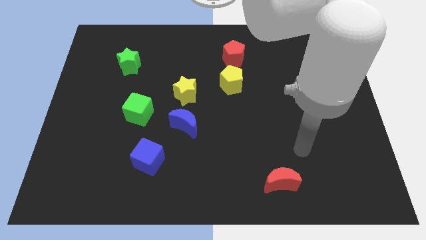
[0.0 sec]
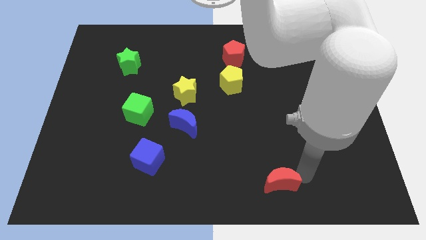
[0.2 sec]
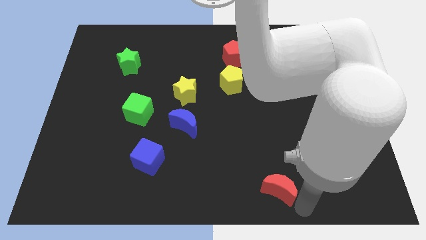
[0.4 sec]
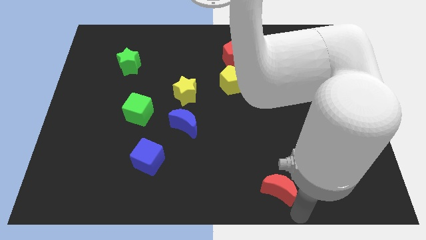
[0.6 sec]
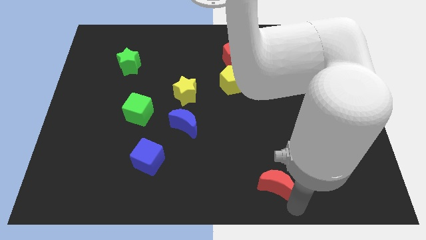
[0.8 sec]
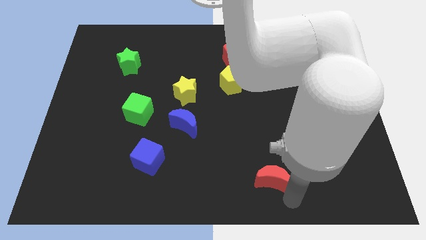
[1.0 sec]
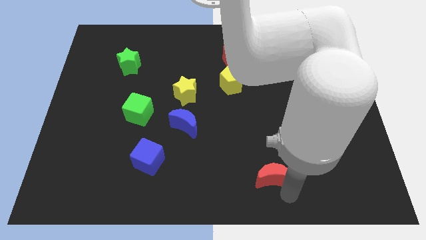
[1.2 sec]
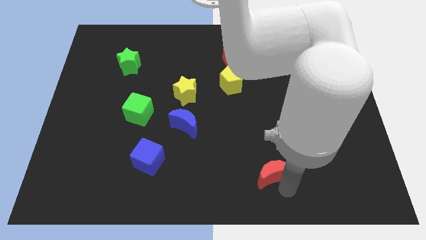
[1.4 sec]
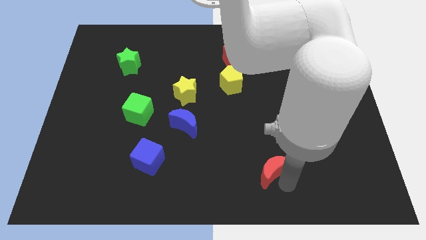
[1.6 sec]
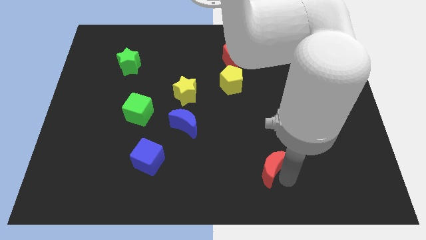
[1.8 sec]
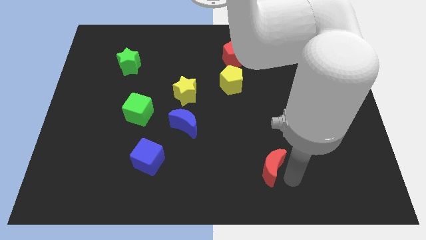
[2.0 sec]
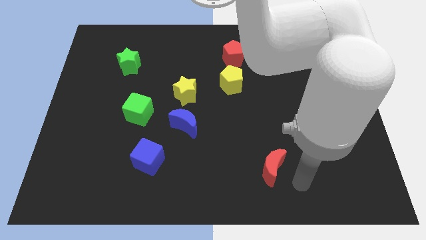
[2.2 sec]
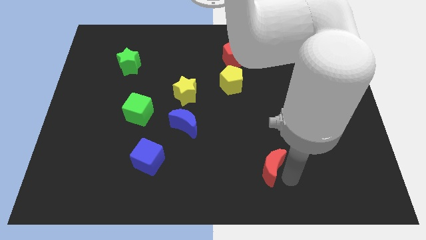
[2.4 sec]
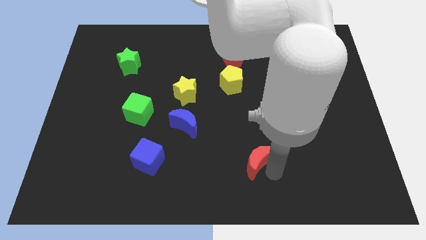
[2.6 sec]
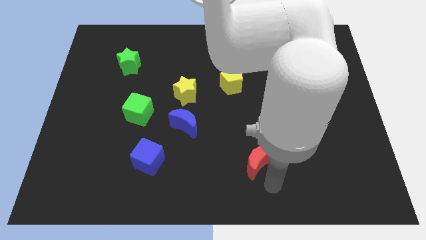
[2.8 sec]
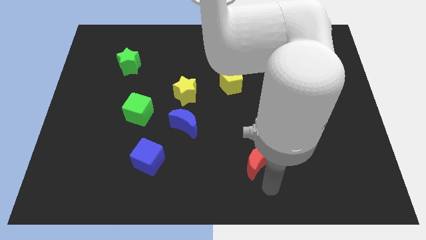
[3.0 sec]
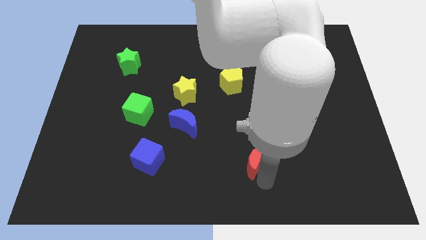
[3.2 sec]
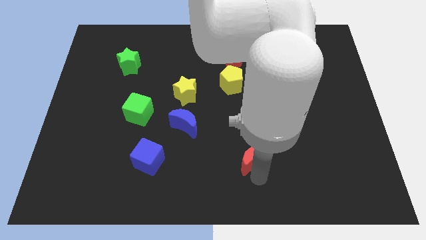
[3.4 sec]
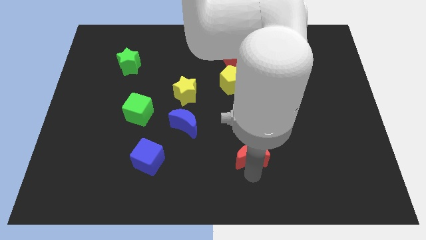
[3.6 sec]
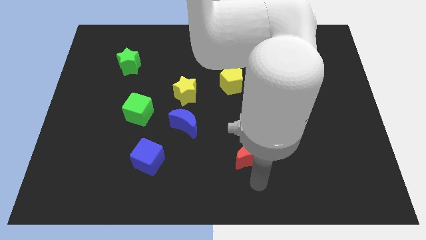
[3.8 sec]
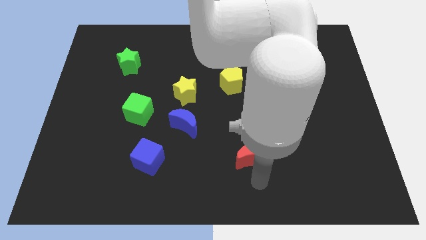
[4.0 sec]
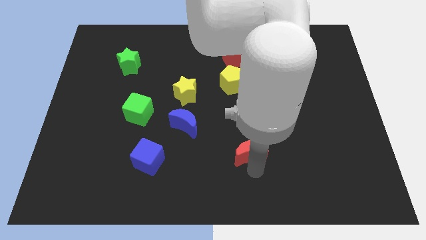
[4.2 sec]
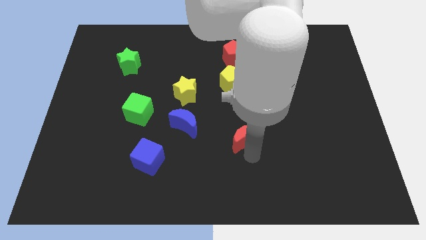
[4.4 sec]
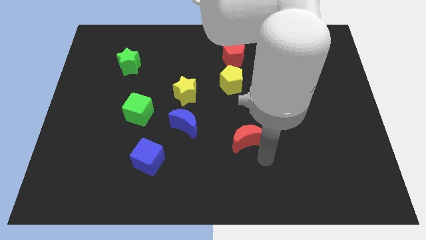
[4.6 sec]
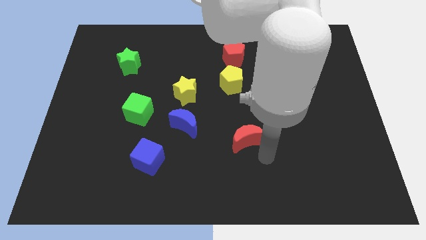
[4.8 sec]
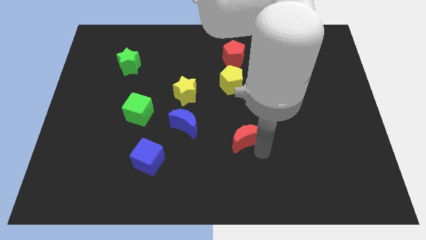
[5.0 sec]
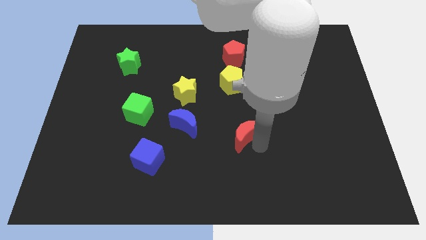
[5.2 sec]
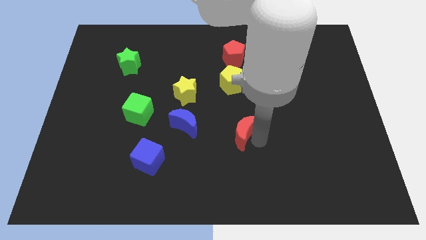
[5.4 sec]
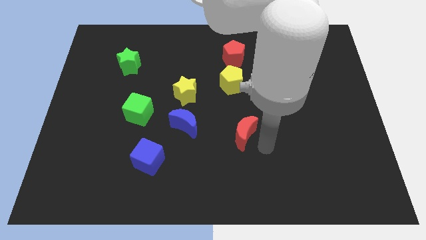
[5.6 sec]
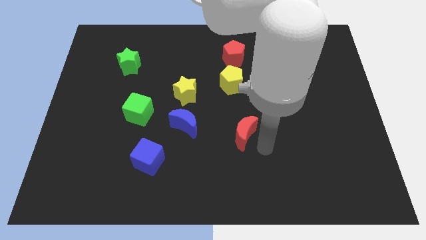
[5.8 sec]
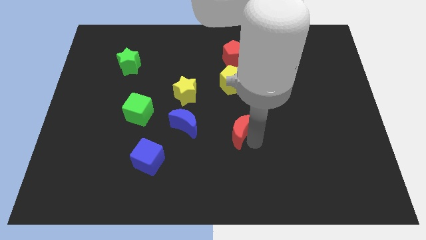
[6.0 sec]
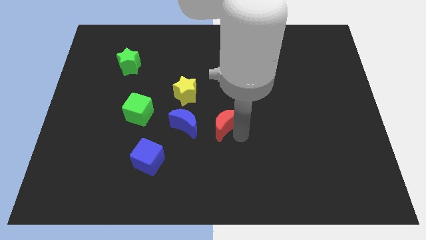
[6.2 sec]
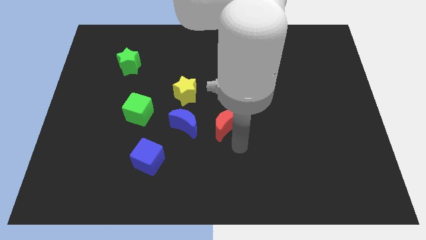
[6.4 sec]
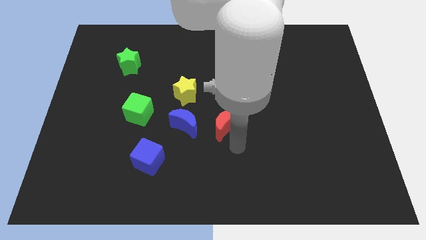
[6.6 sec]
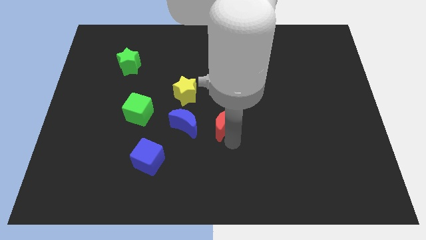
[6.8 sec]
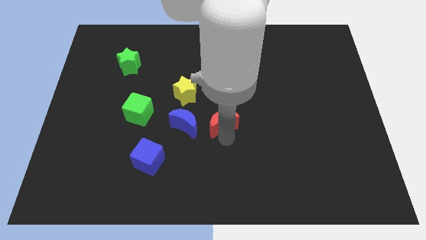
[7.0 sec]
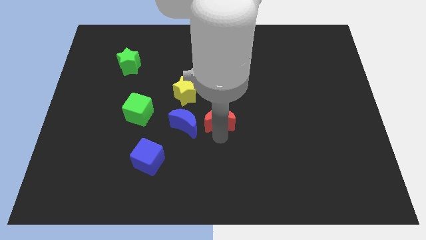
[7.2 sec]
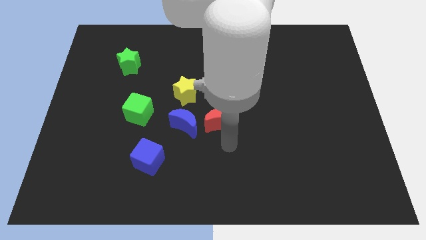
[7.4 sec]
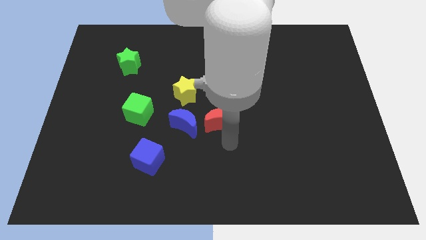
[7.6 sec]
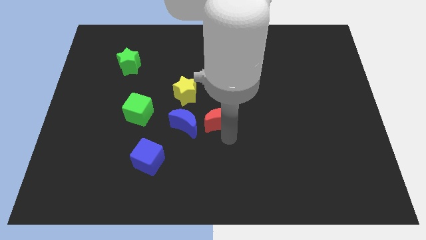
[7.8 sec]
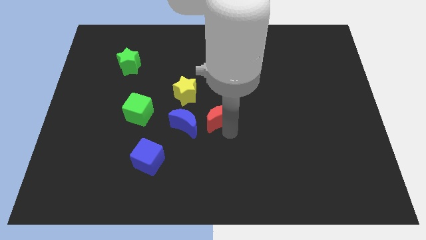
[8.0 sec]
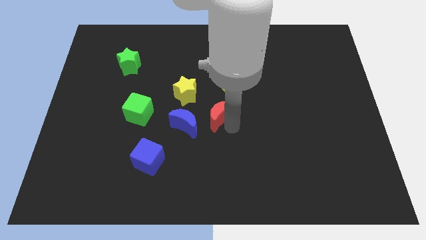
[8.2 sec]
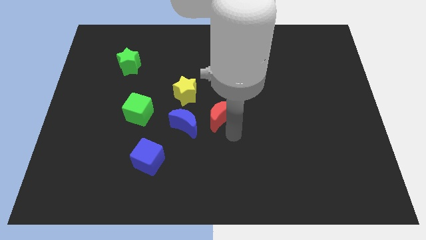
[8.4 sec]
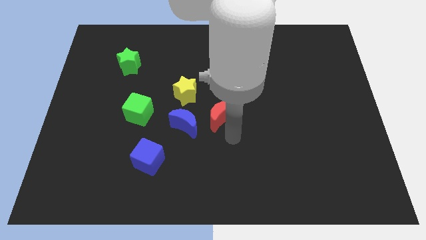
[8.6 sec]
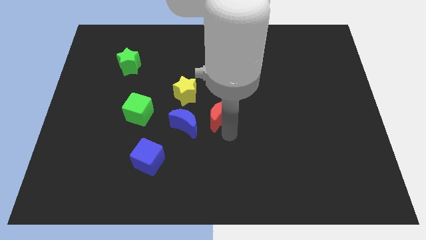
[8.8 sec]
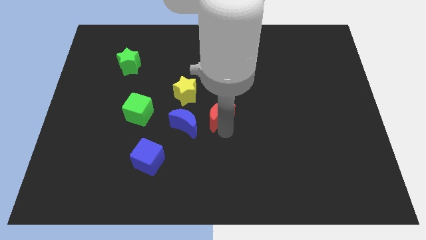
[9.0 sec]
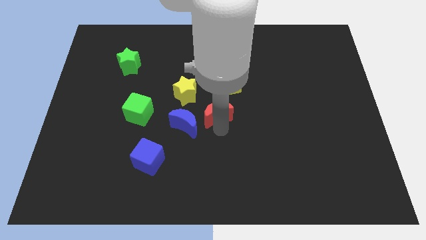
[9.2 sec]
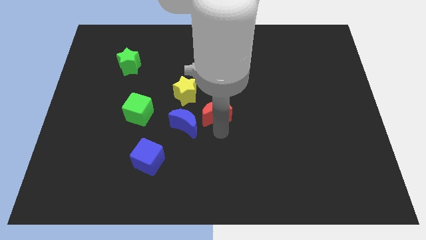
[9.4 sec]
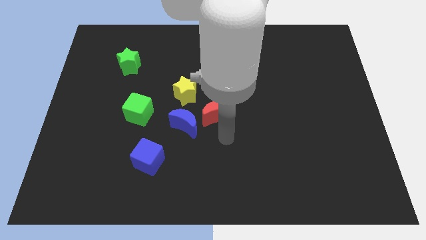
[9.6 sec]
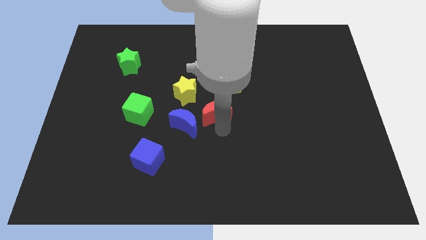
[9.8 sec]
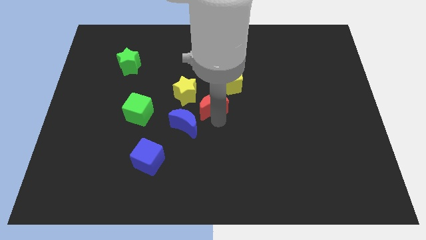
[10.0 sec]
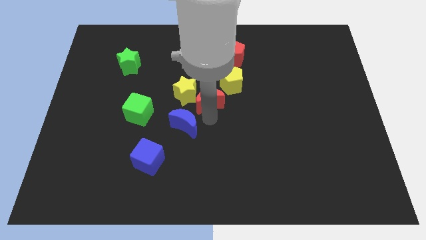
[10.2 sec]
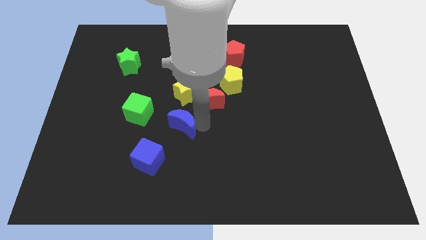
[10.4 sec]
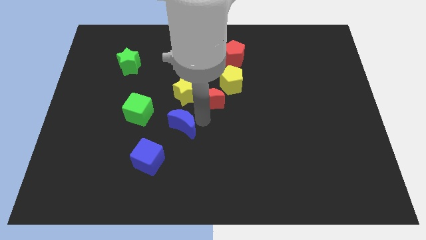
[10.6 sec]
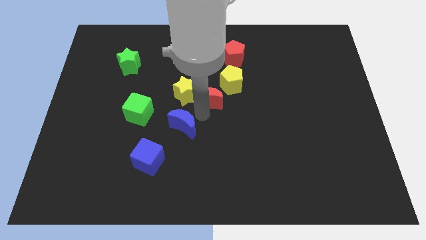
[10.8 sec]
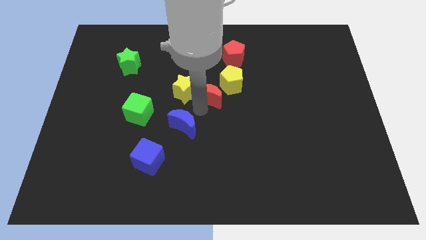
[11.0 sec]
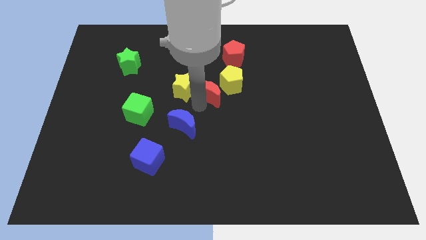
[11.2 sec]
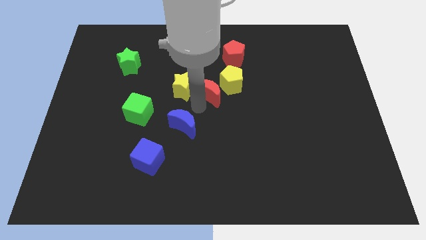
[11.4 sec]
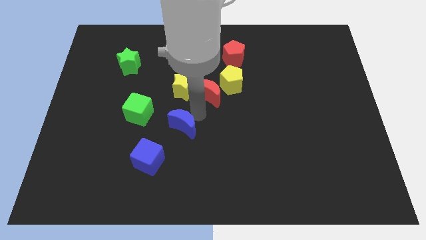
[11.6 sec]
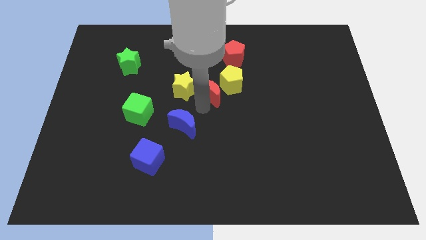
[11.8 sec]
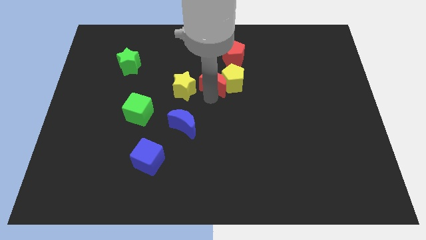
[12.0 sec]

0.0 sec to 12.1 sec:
push the red moon diagonally up and to the left of the yellow pentagon

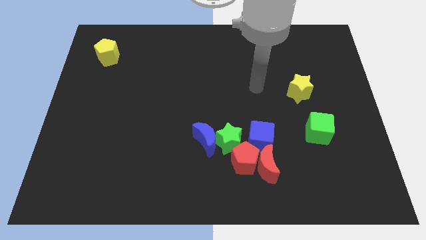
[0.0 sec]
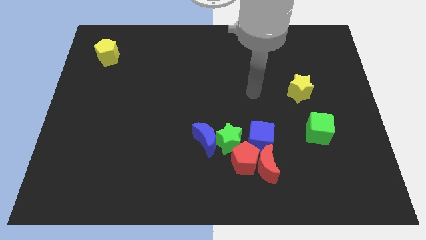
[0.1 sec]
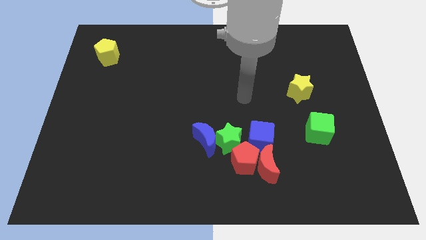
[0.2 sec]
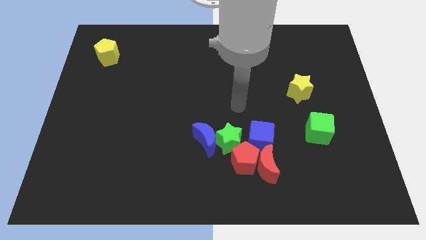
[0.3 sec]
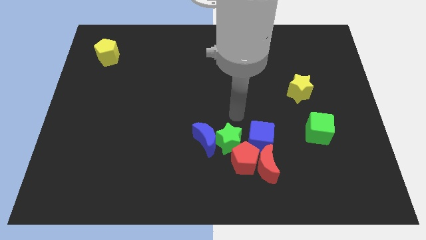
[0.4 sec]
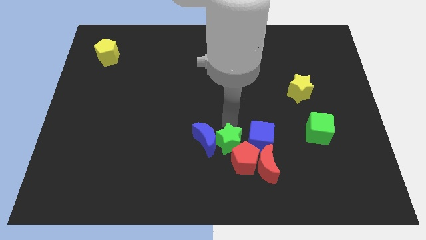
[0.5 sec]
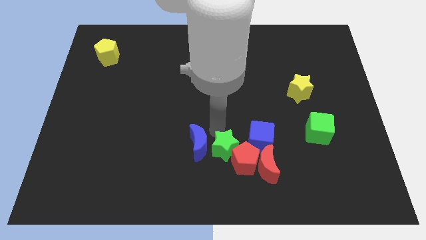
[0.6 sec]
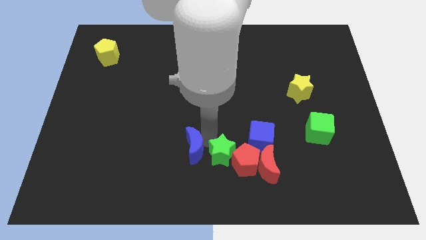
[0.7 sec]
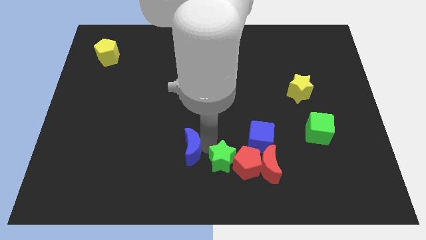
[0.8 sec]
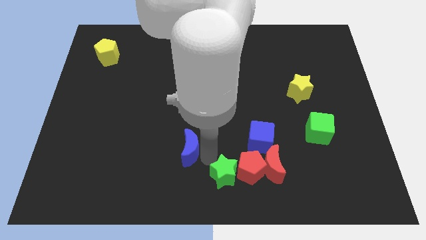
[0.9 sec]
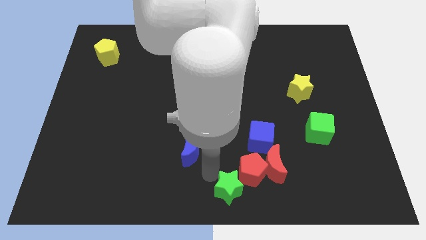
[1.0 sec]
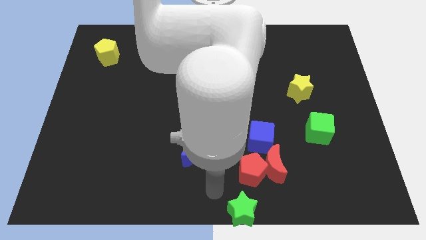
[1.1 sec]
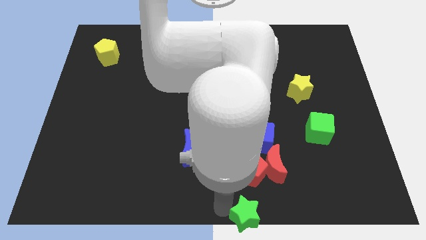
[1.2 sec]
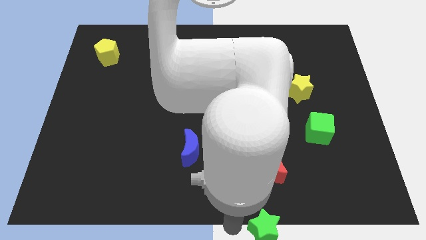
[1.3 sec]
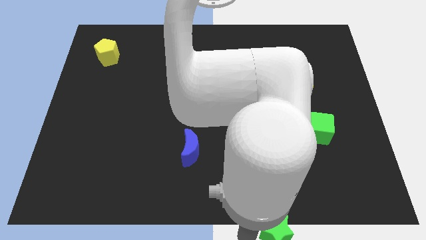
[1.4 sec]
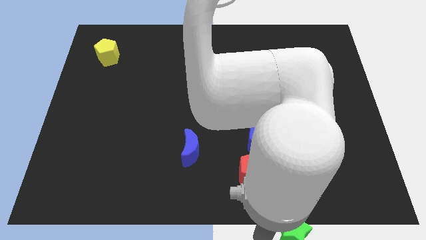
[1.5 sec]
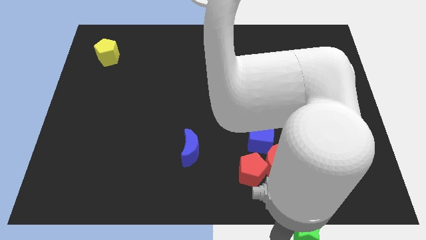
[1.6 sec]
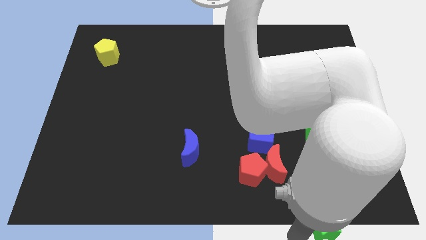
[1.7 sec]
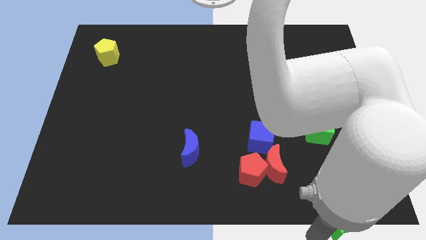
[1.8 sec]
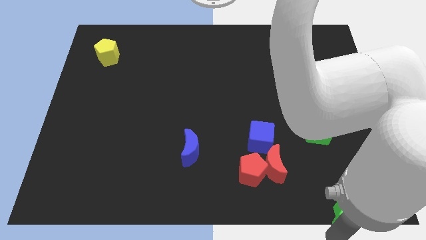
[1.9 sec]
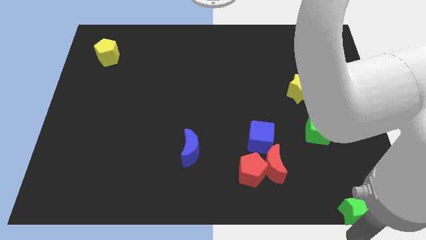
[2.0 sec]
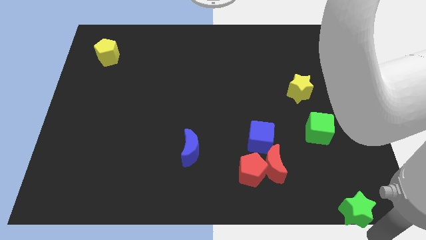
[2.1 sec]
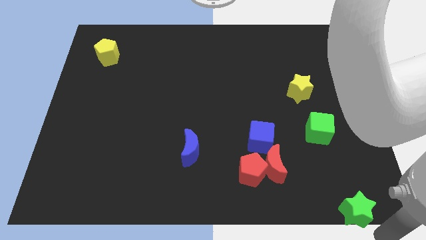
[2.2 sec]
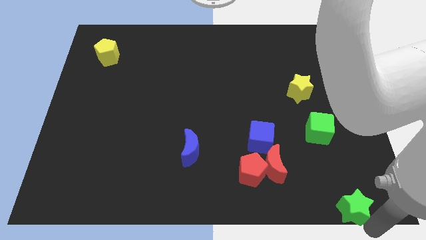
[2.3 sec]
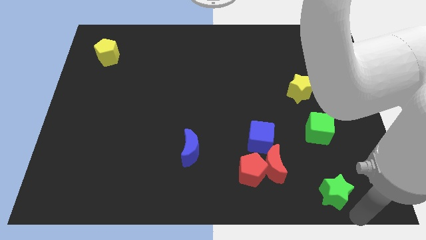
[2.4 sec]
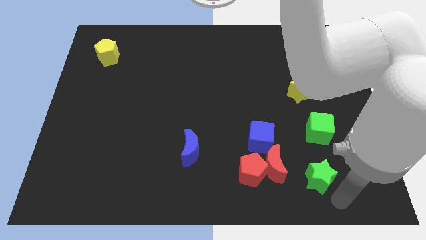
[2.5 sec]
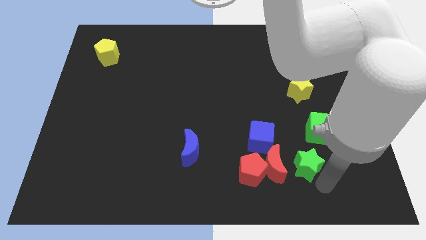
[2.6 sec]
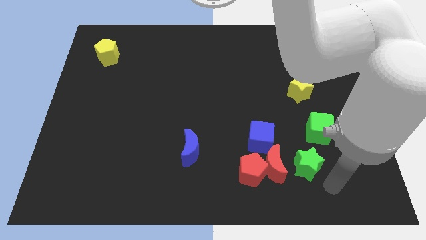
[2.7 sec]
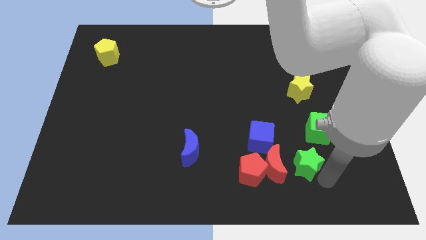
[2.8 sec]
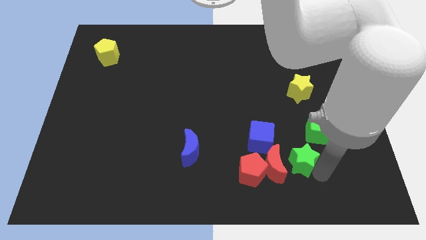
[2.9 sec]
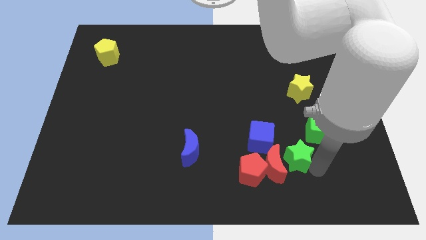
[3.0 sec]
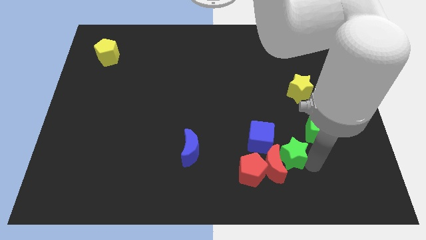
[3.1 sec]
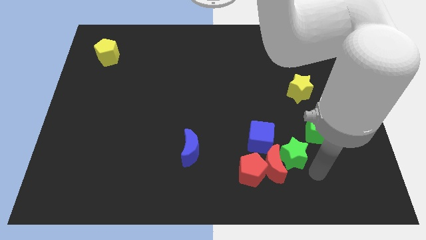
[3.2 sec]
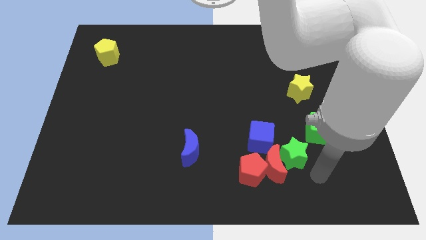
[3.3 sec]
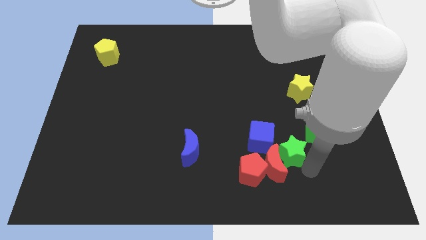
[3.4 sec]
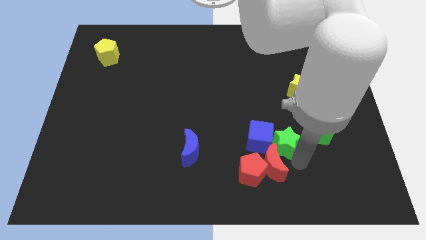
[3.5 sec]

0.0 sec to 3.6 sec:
push the green star to the top right of the blue cube
